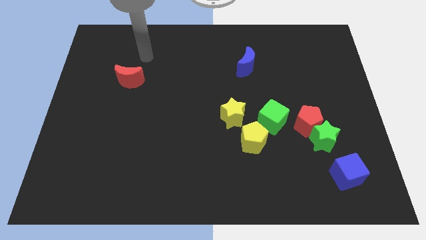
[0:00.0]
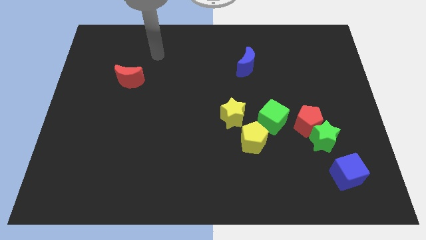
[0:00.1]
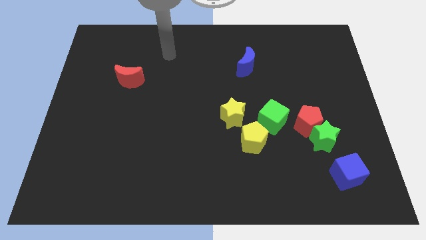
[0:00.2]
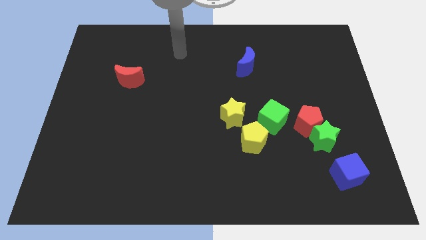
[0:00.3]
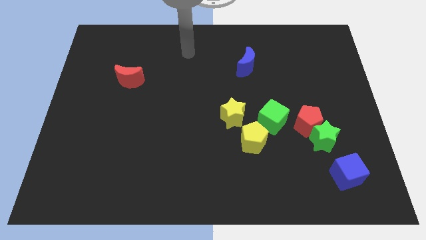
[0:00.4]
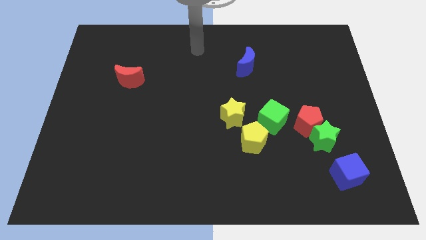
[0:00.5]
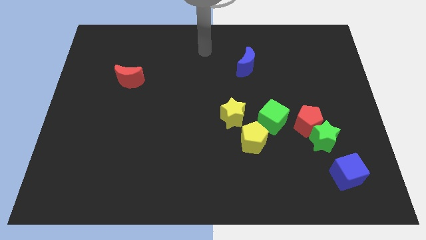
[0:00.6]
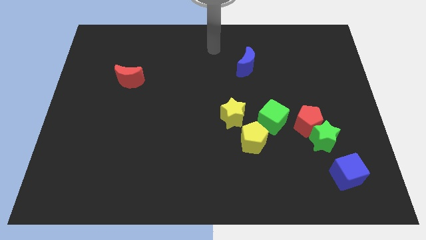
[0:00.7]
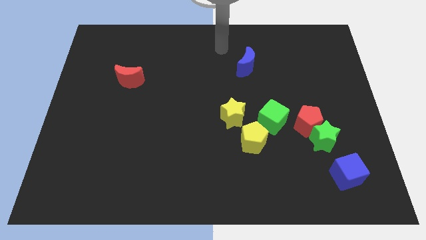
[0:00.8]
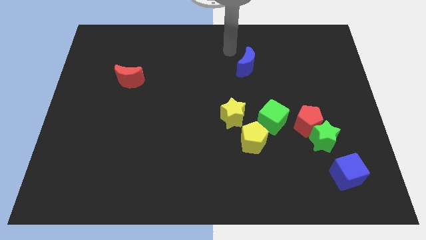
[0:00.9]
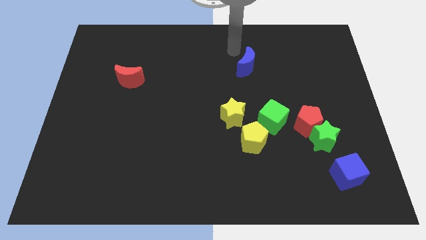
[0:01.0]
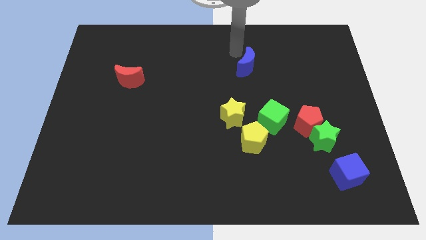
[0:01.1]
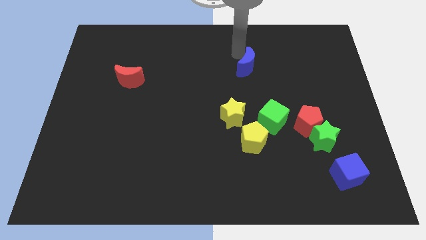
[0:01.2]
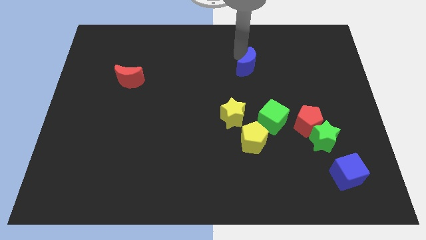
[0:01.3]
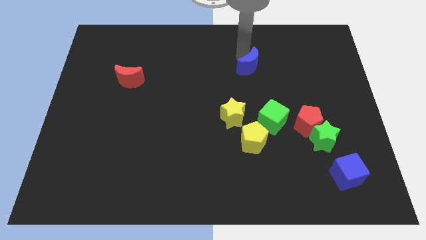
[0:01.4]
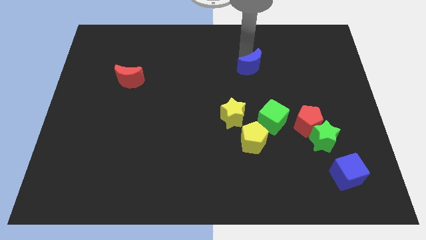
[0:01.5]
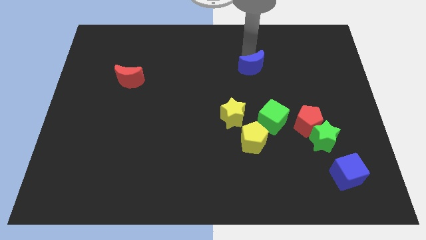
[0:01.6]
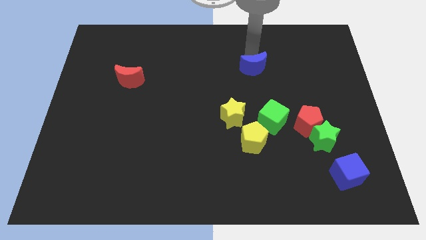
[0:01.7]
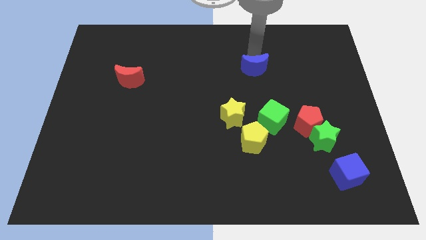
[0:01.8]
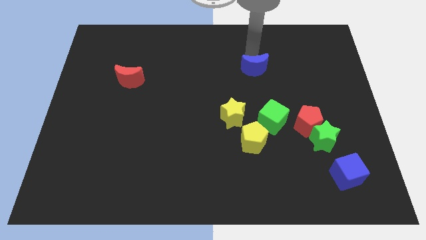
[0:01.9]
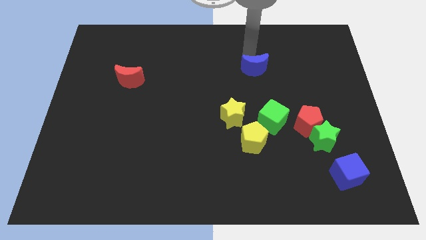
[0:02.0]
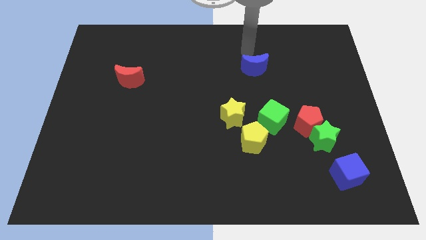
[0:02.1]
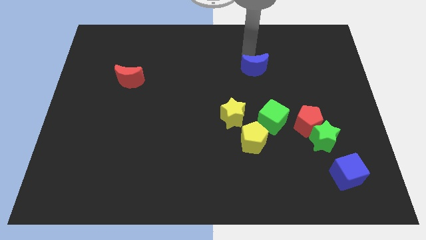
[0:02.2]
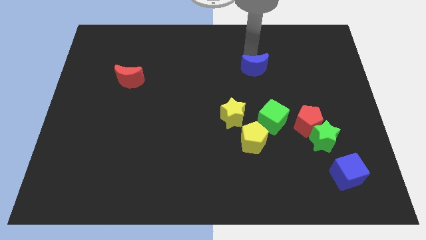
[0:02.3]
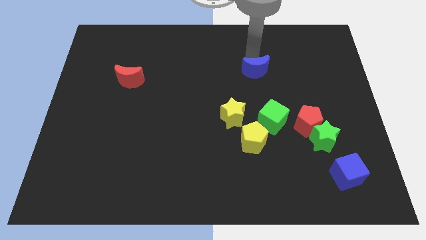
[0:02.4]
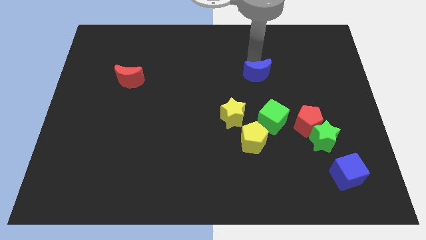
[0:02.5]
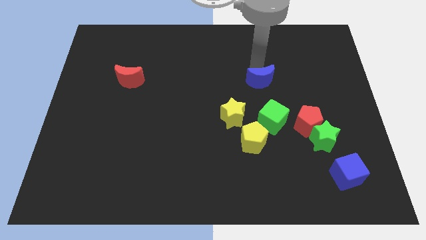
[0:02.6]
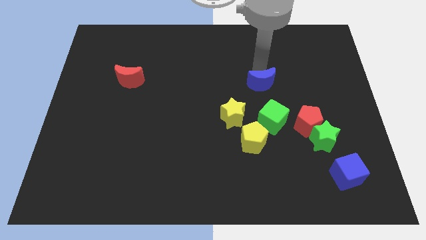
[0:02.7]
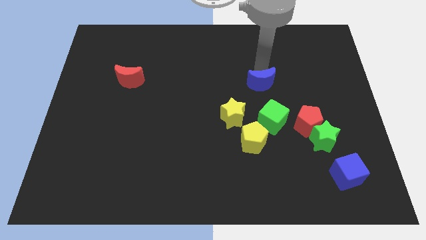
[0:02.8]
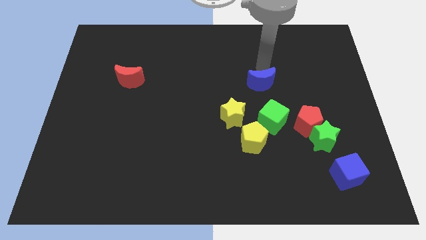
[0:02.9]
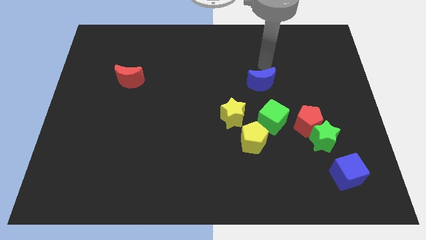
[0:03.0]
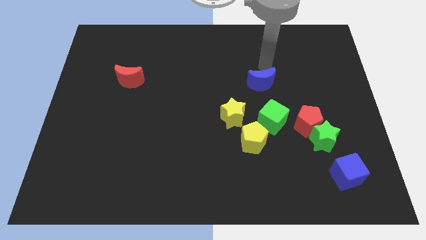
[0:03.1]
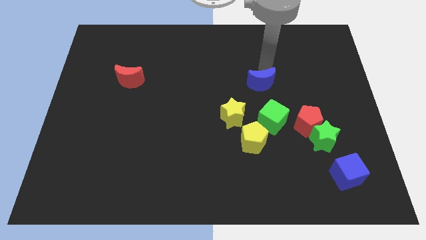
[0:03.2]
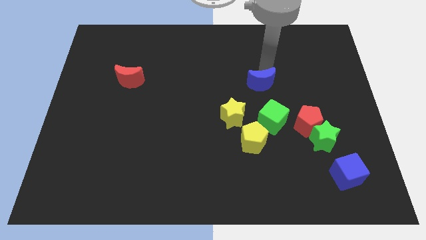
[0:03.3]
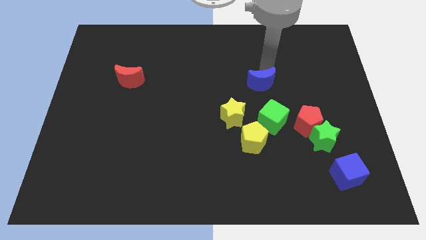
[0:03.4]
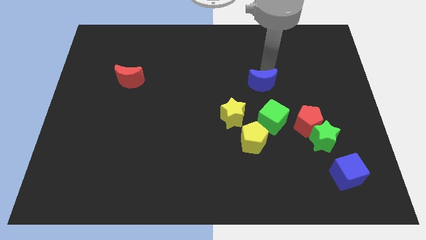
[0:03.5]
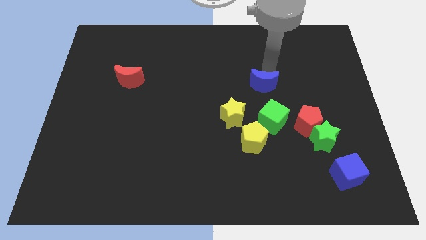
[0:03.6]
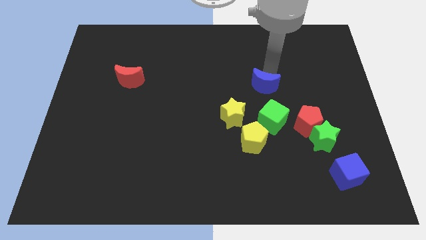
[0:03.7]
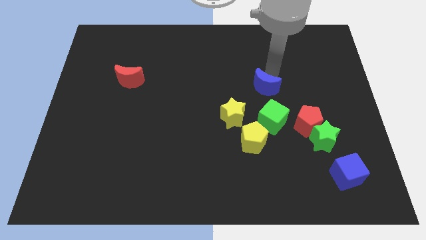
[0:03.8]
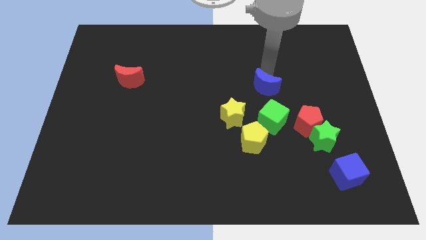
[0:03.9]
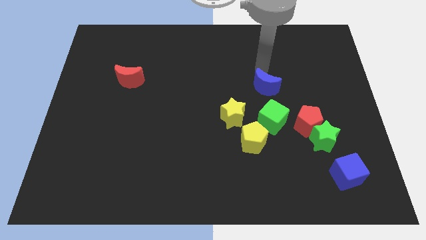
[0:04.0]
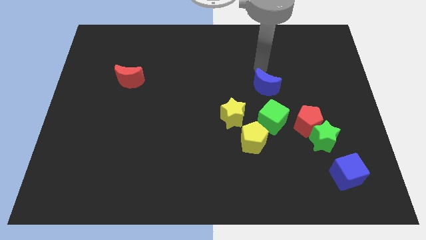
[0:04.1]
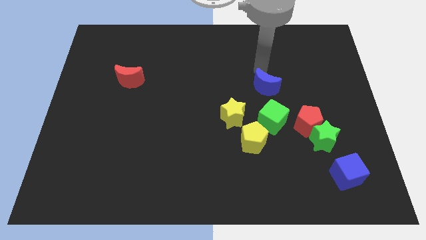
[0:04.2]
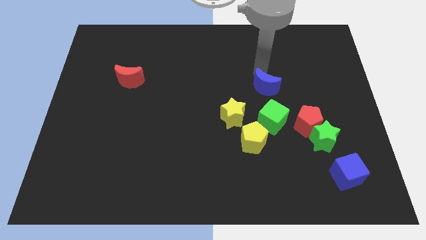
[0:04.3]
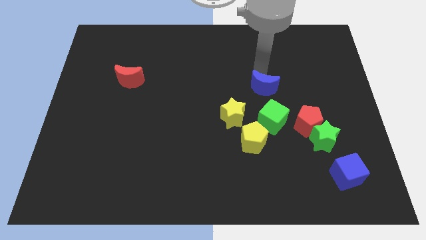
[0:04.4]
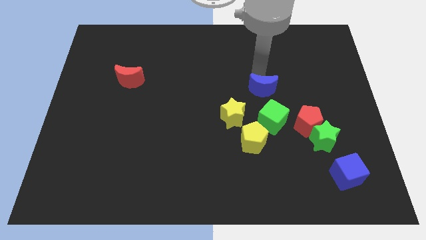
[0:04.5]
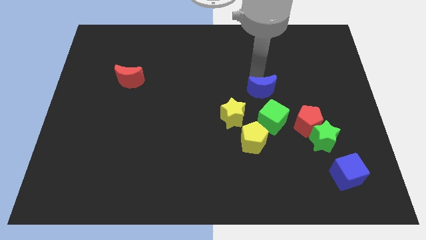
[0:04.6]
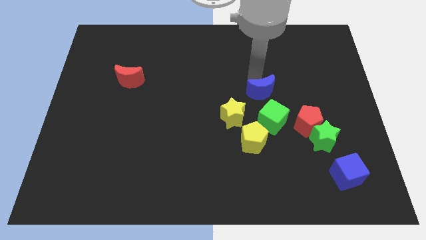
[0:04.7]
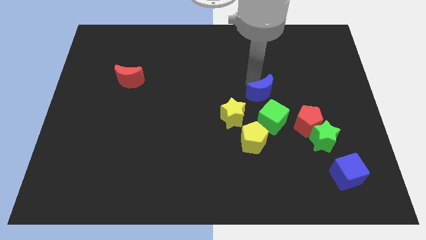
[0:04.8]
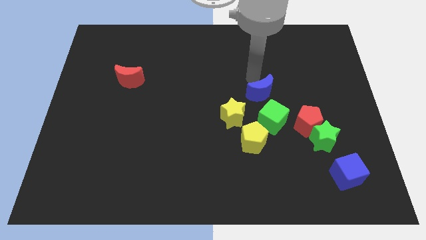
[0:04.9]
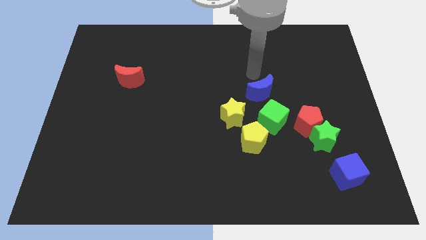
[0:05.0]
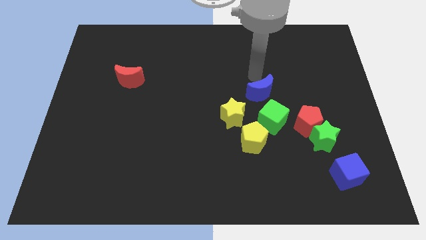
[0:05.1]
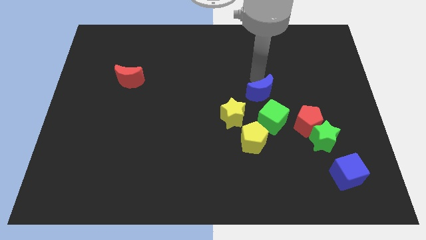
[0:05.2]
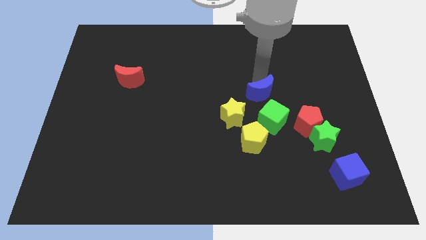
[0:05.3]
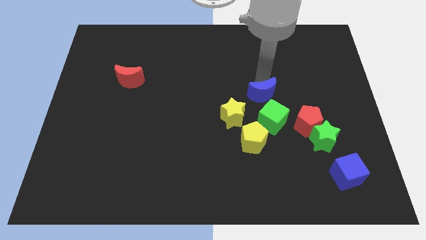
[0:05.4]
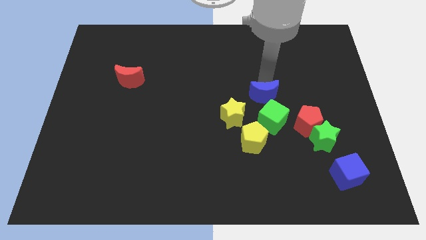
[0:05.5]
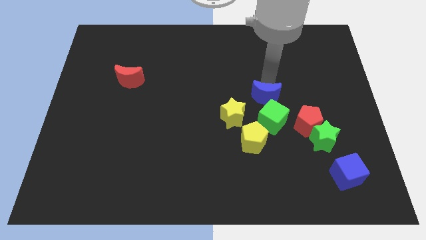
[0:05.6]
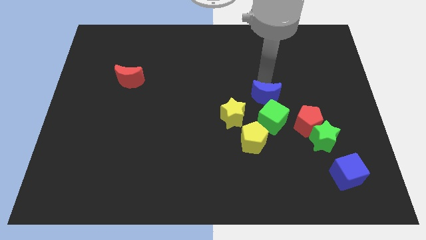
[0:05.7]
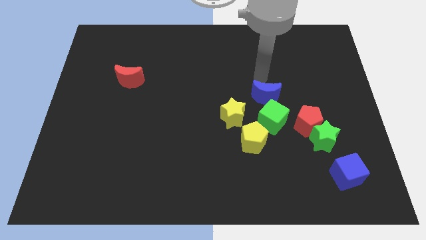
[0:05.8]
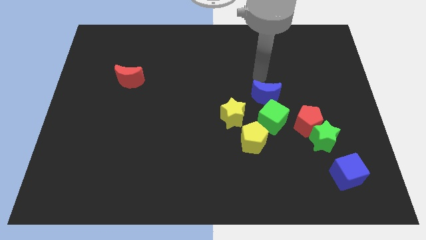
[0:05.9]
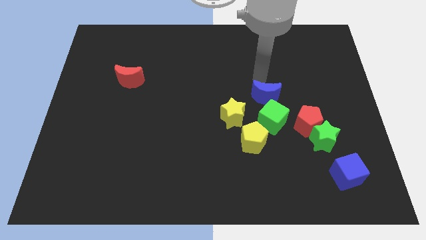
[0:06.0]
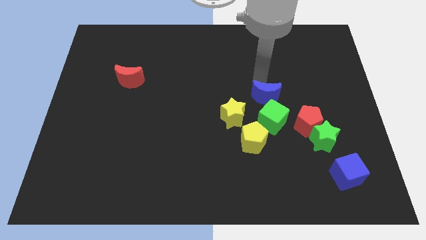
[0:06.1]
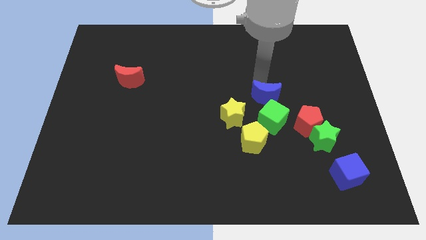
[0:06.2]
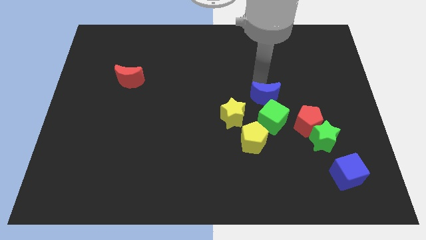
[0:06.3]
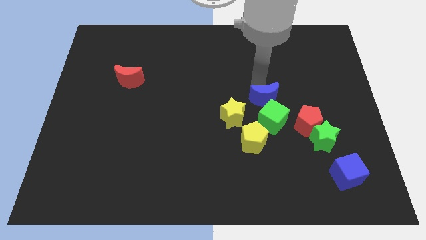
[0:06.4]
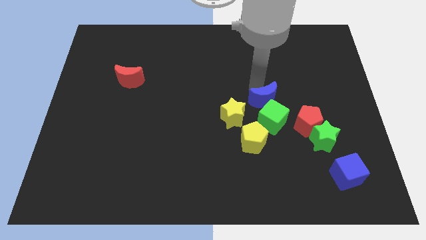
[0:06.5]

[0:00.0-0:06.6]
slide the blue moon next to the green cube

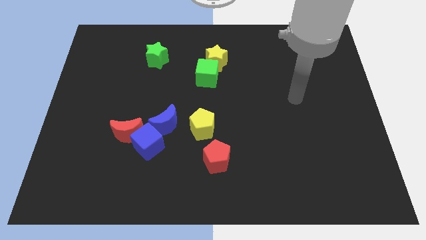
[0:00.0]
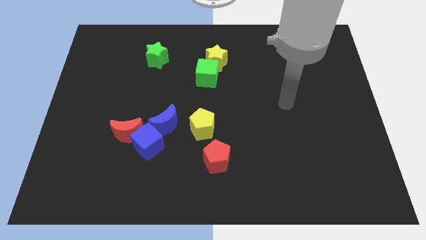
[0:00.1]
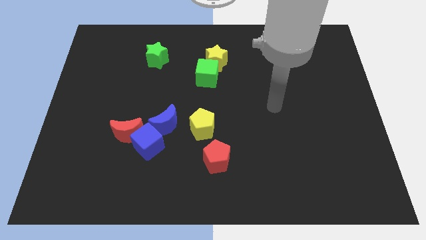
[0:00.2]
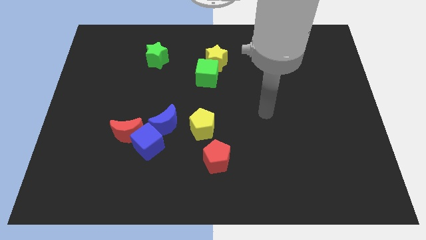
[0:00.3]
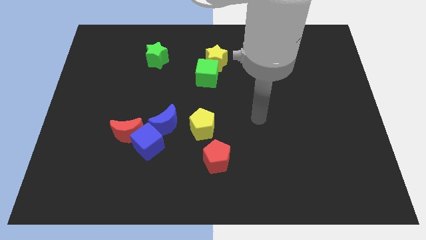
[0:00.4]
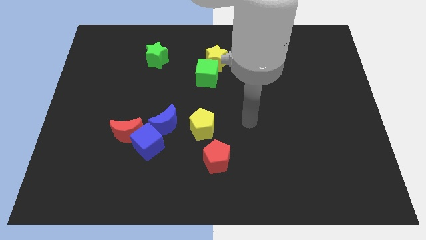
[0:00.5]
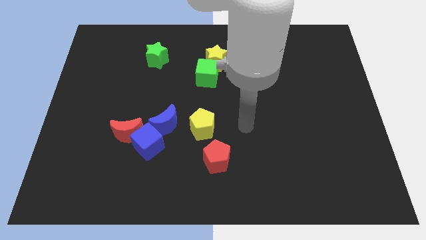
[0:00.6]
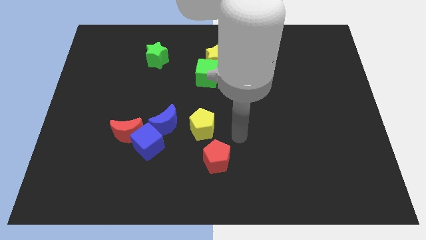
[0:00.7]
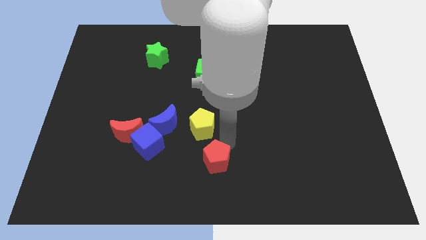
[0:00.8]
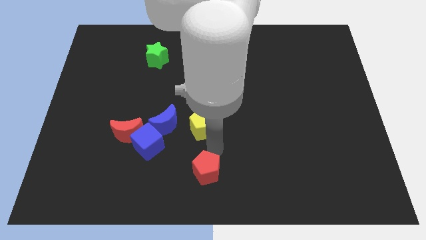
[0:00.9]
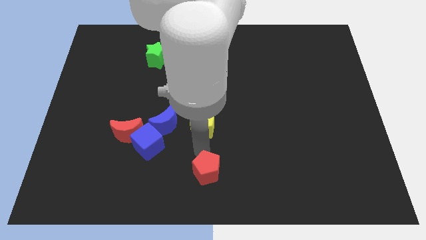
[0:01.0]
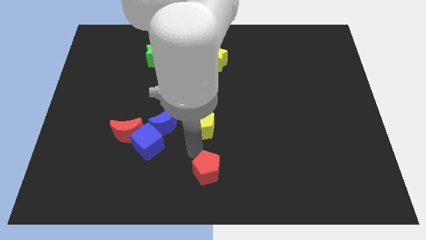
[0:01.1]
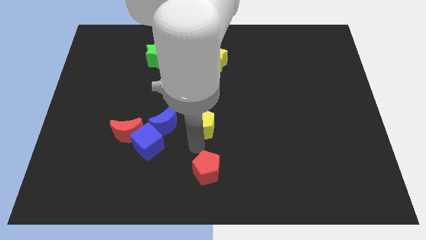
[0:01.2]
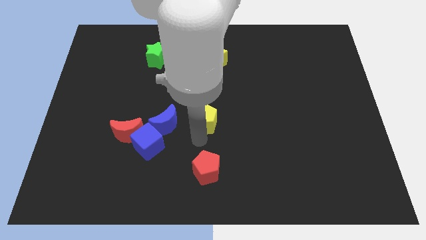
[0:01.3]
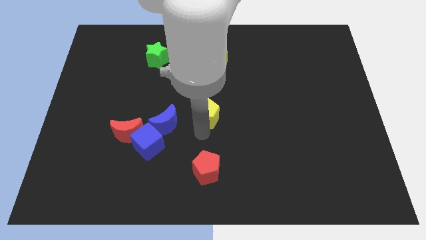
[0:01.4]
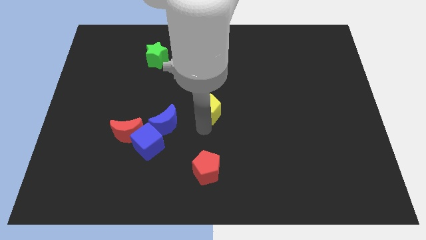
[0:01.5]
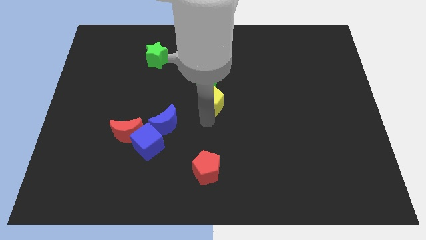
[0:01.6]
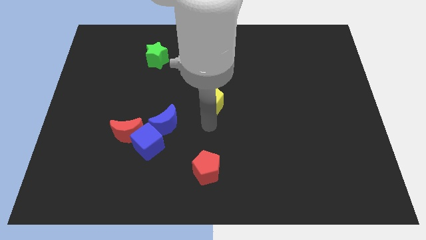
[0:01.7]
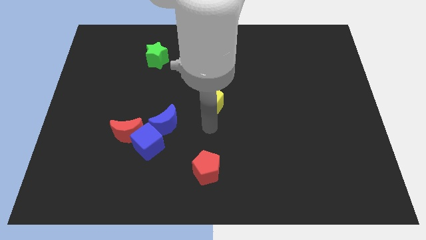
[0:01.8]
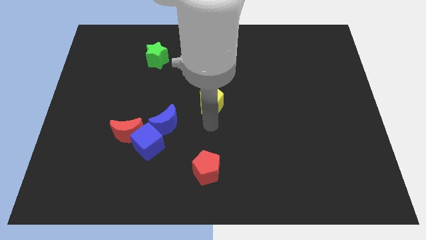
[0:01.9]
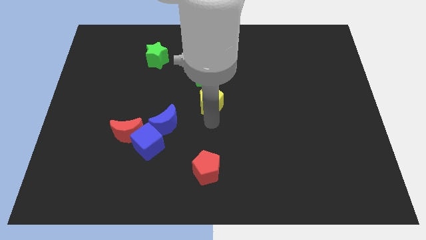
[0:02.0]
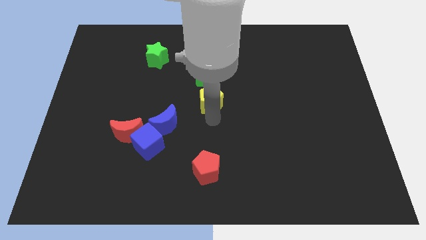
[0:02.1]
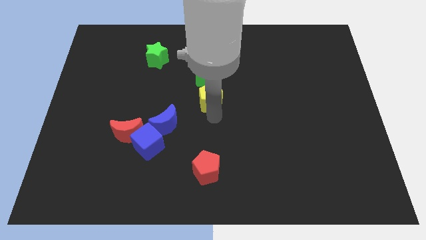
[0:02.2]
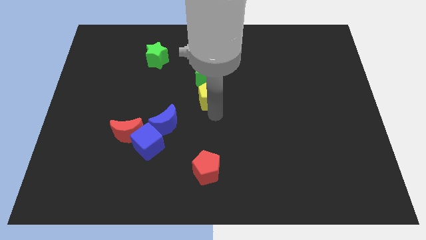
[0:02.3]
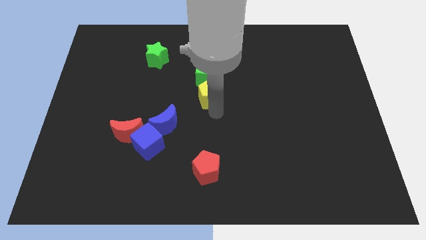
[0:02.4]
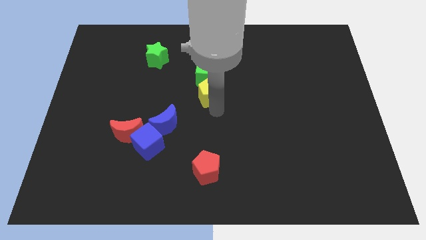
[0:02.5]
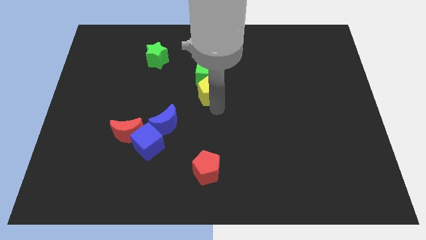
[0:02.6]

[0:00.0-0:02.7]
move the yellow pentagon next to the green cube
